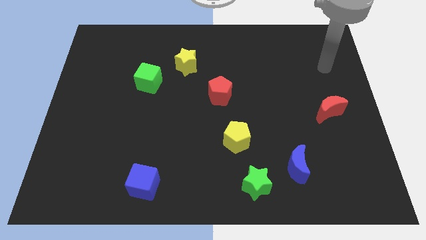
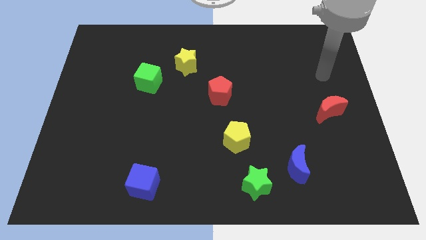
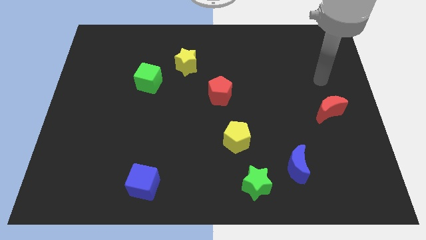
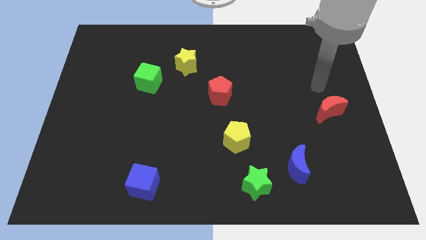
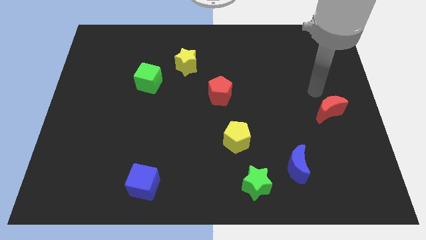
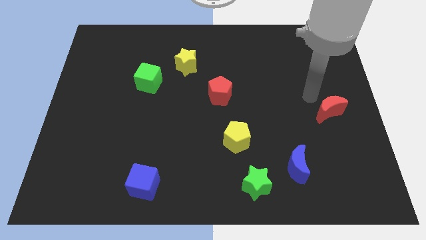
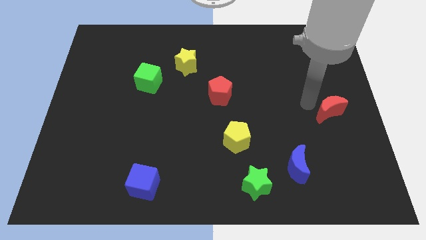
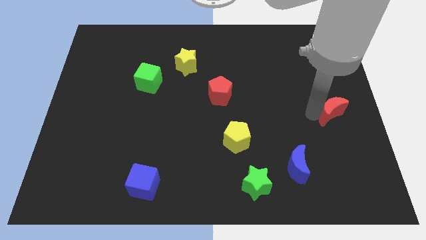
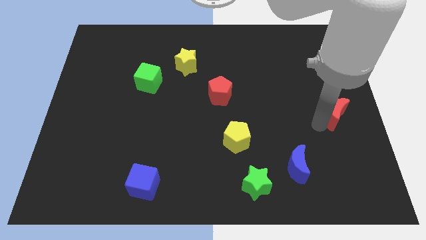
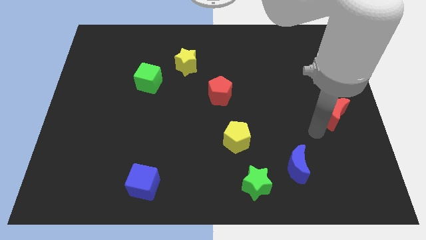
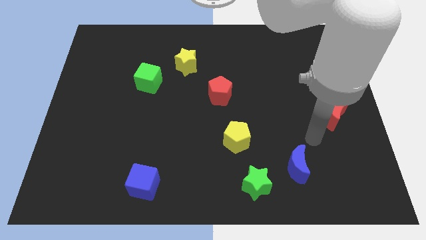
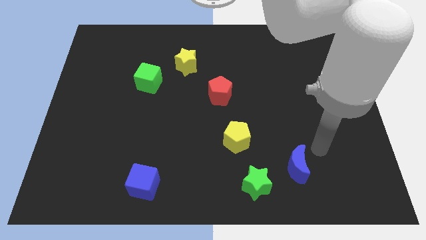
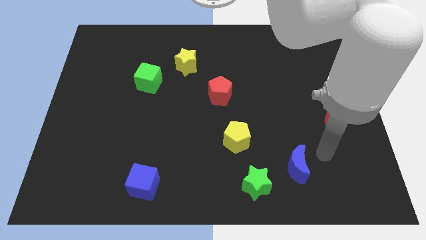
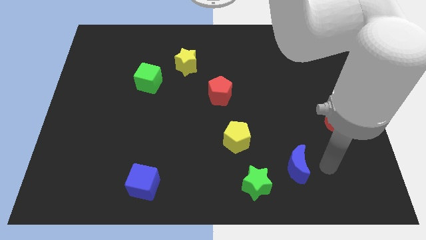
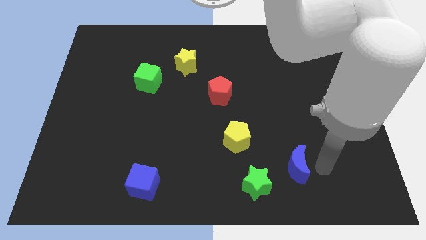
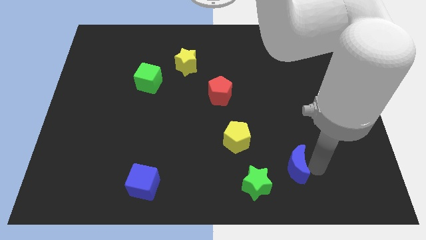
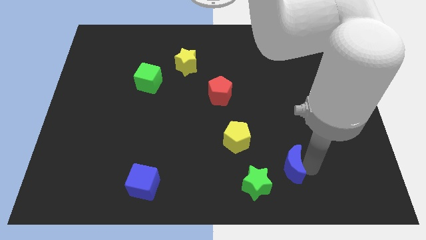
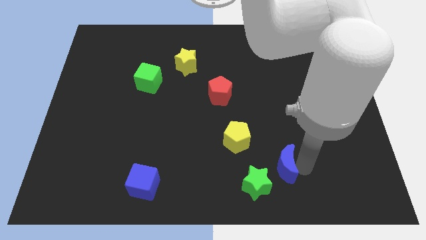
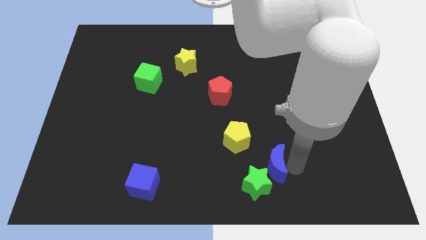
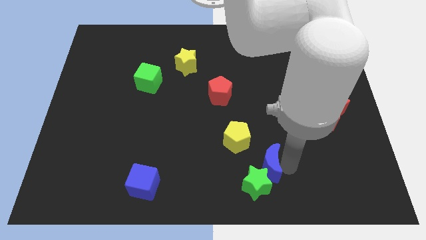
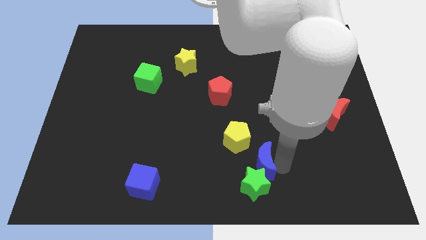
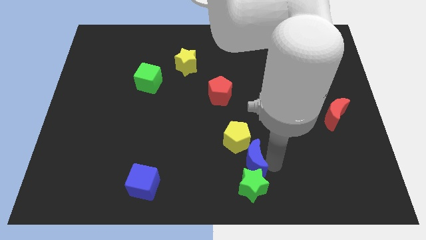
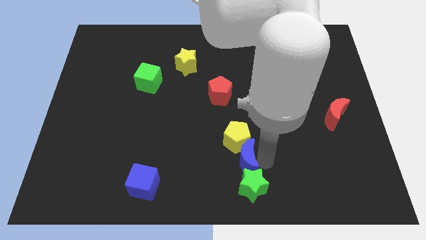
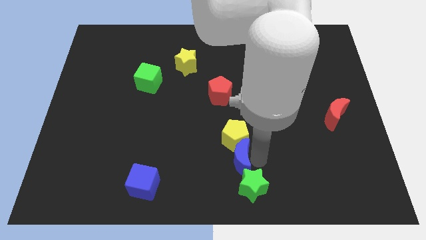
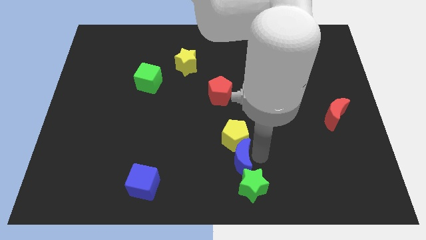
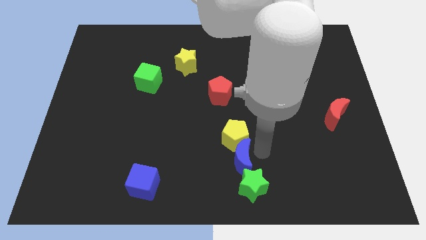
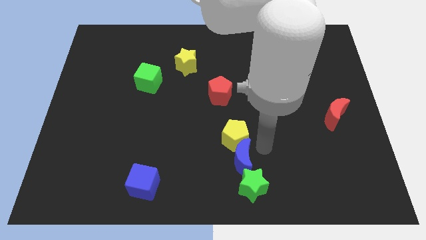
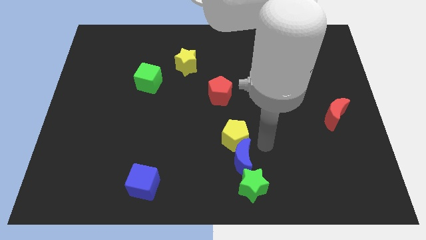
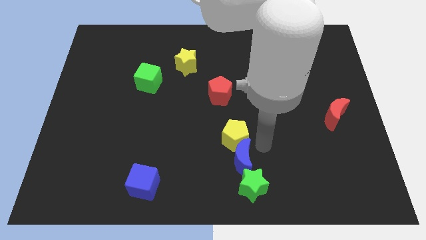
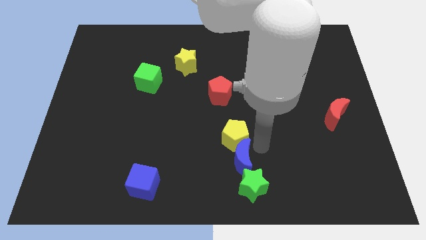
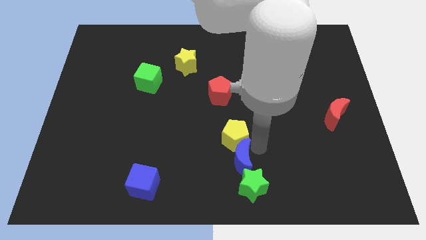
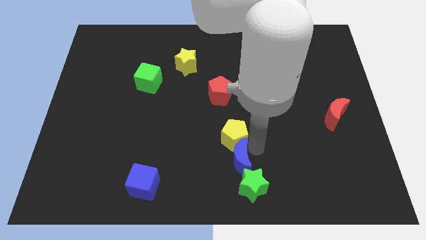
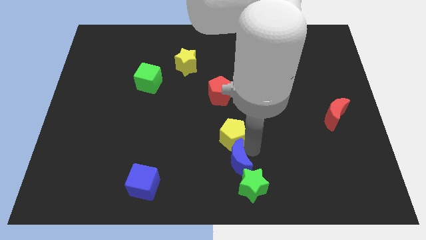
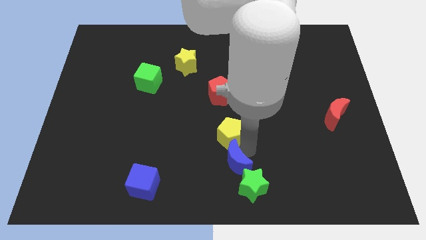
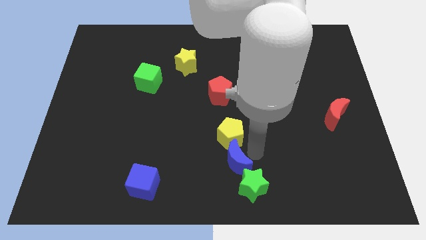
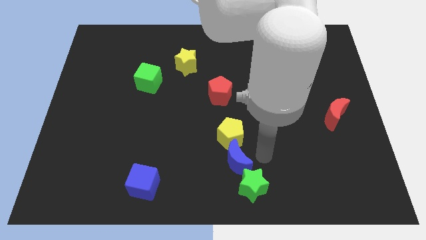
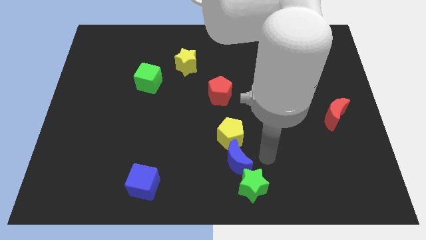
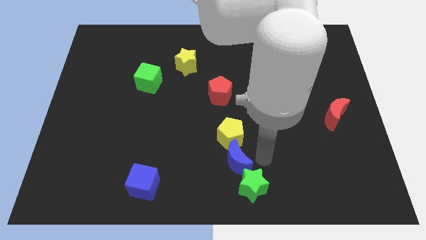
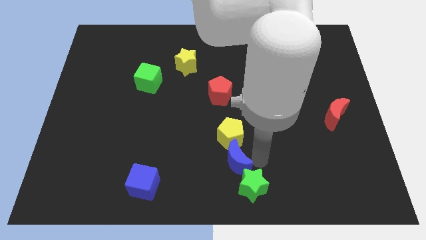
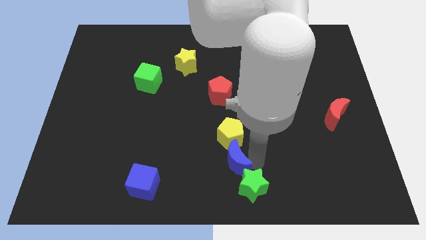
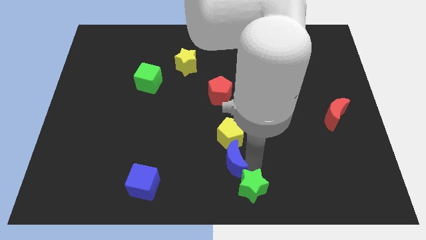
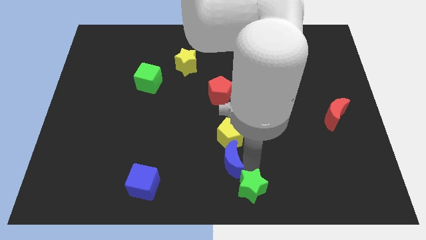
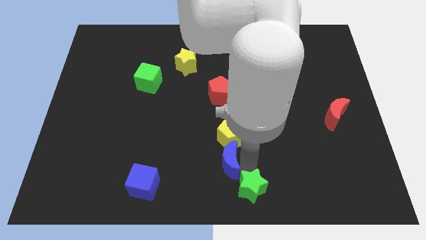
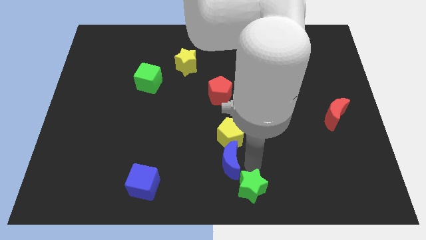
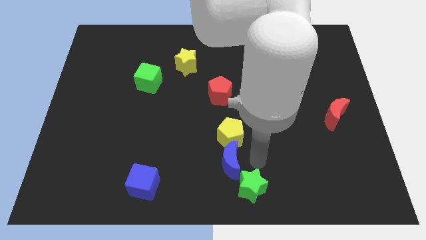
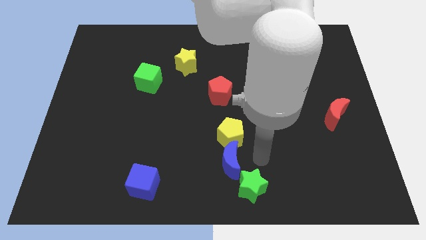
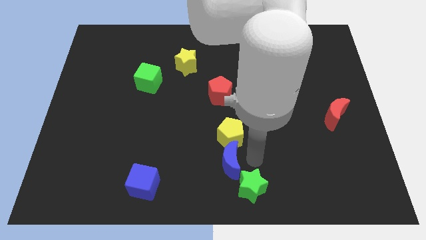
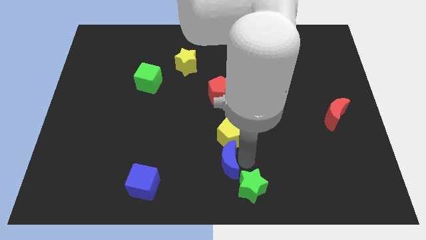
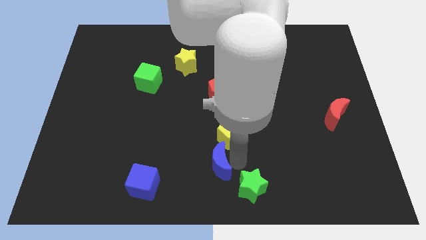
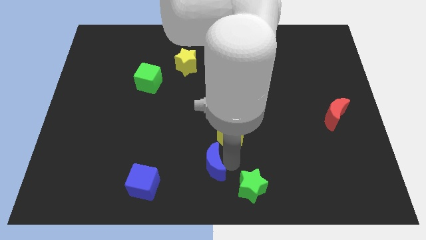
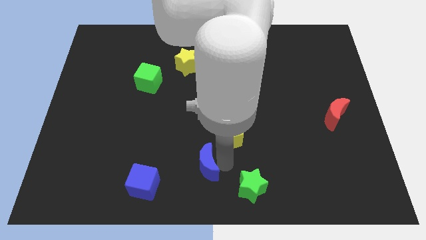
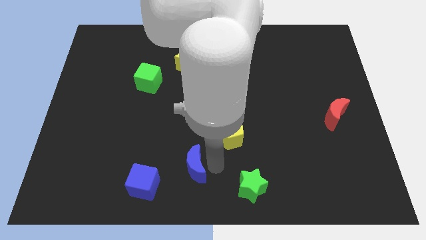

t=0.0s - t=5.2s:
push the blue moon left

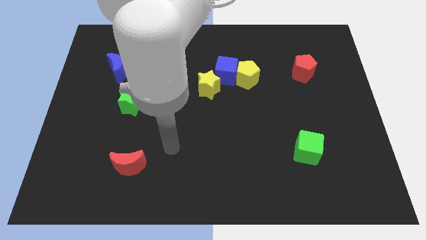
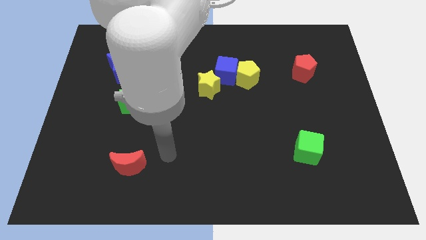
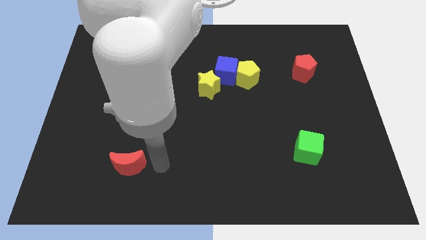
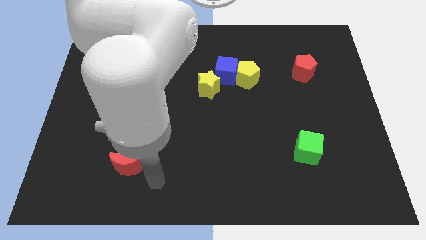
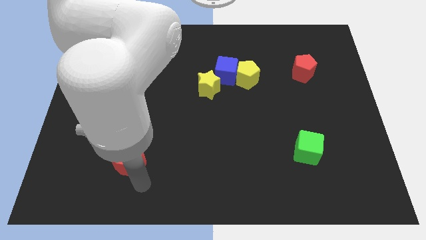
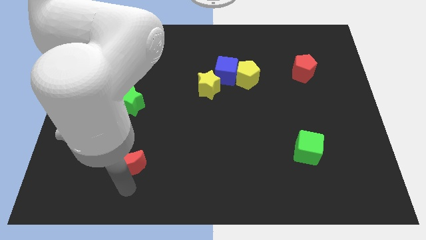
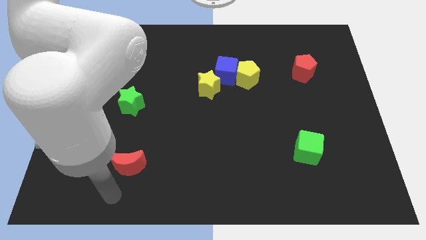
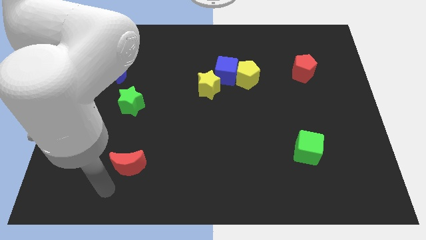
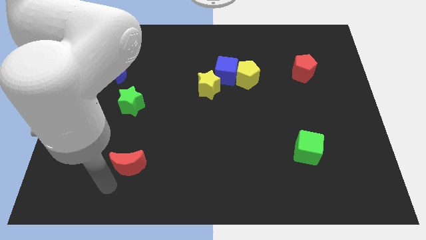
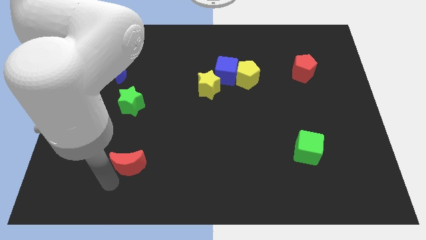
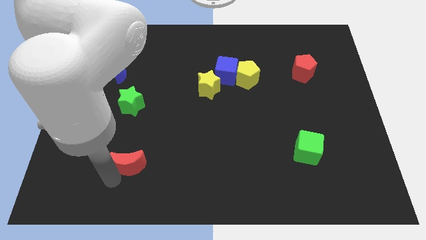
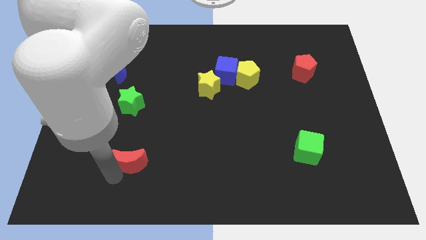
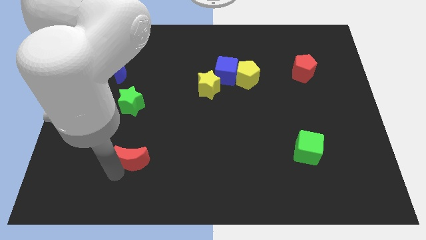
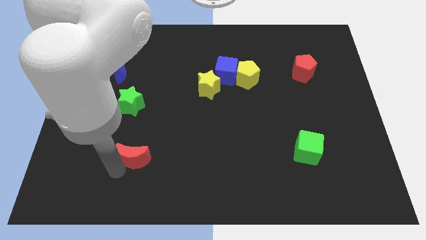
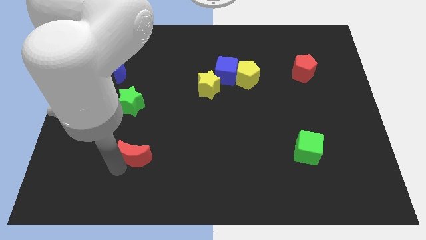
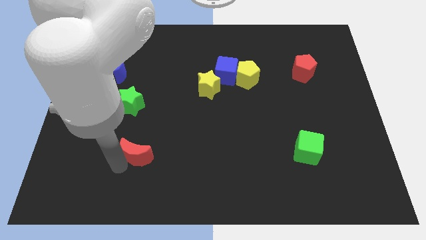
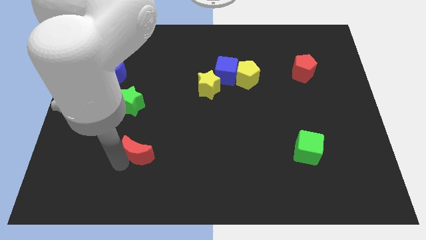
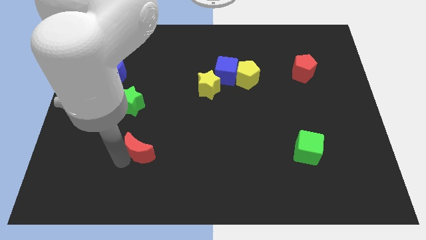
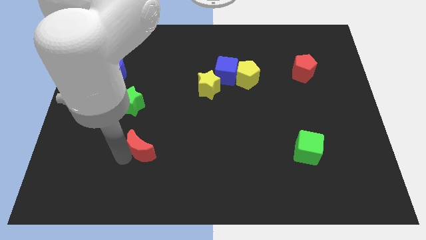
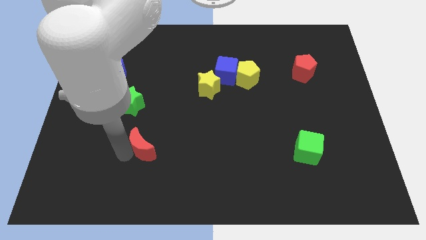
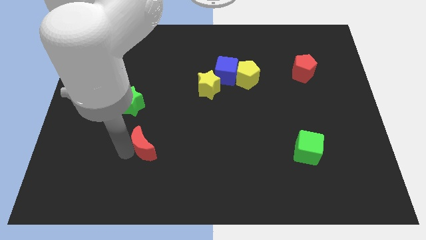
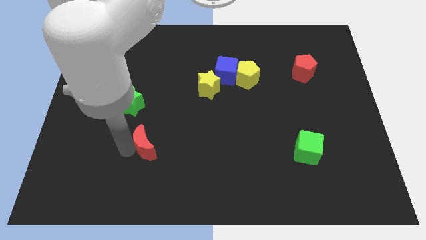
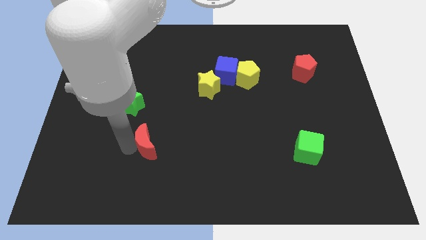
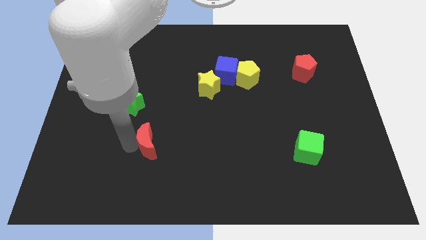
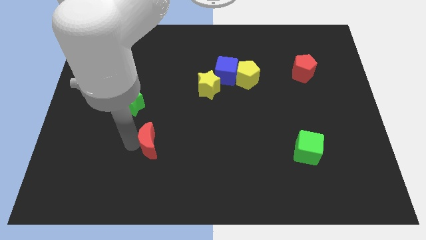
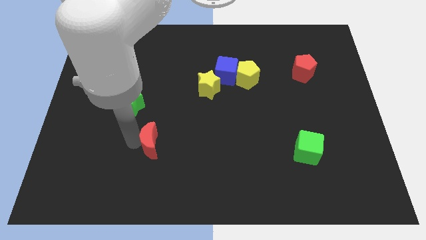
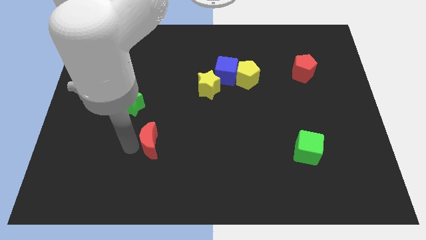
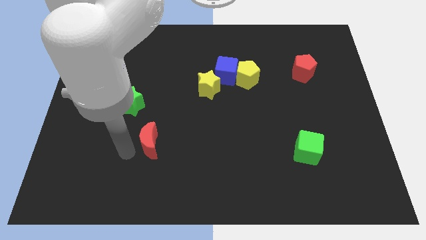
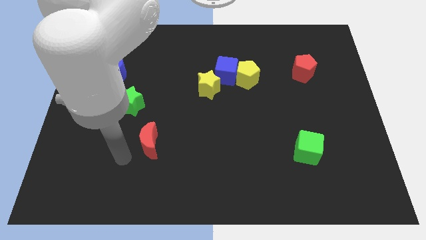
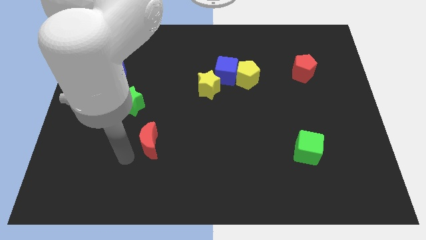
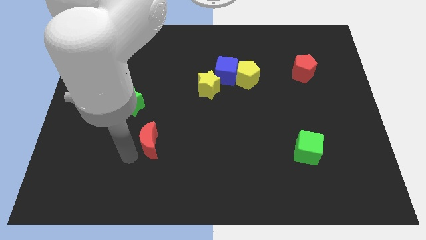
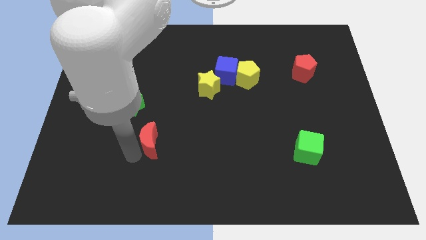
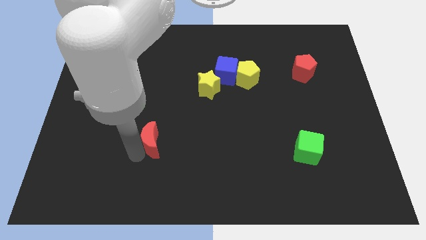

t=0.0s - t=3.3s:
slightly slide the red moon up and to the right
